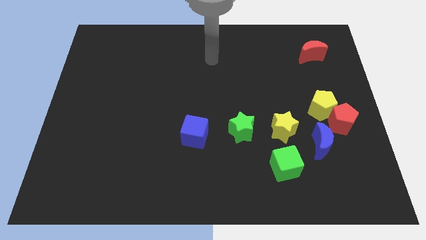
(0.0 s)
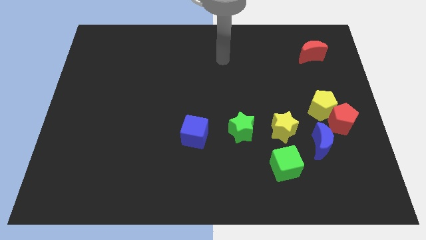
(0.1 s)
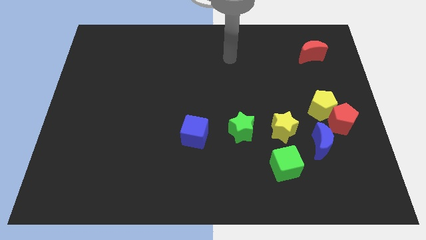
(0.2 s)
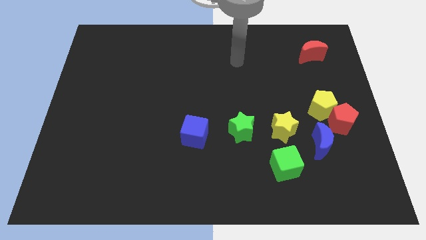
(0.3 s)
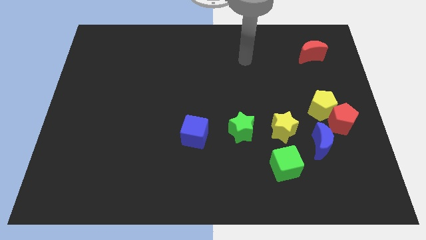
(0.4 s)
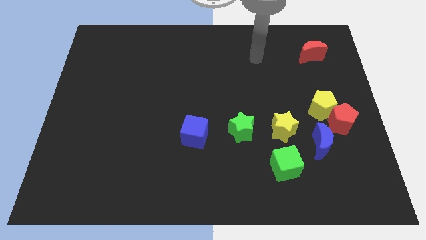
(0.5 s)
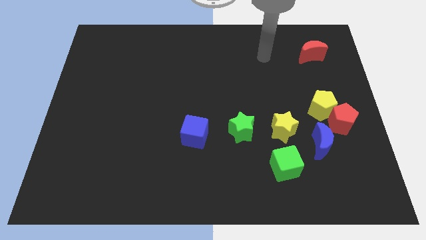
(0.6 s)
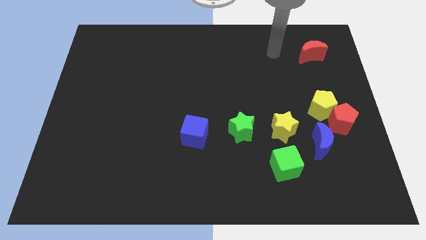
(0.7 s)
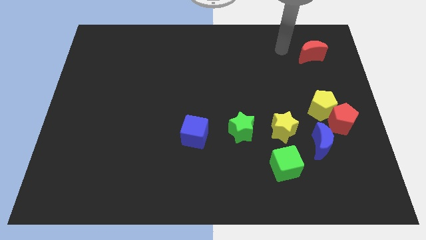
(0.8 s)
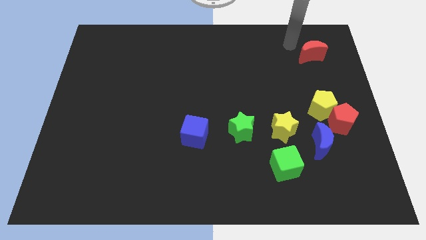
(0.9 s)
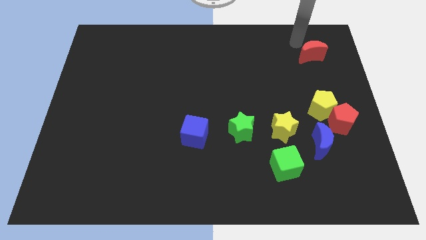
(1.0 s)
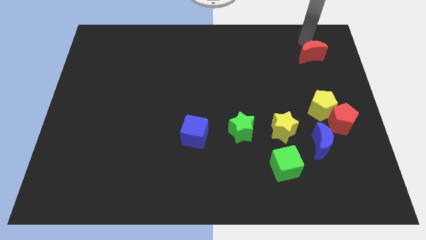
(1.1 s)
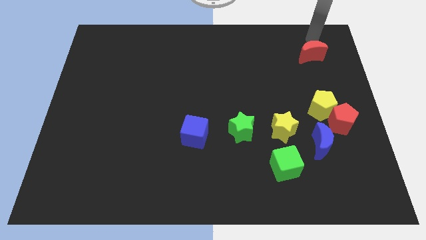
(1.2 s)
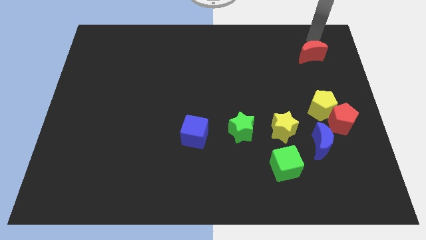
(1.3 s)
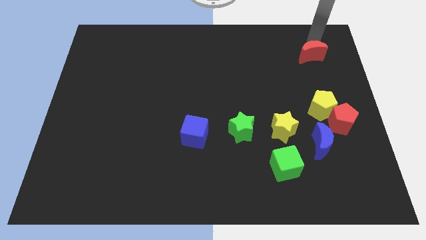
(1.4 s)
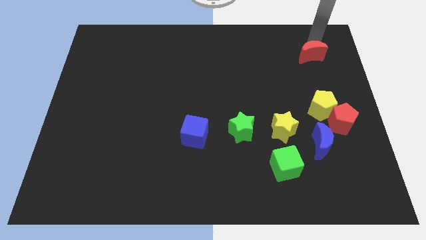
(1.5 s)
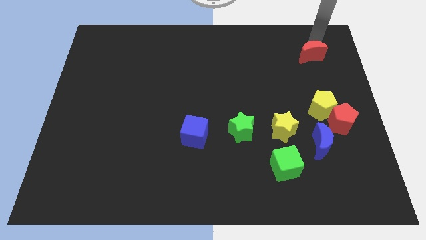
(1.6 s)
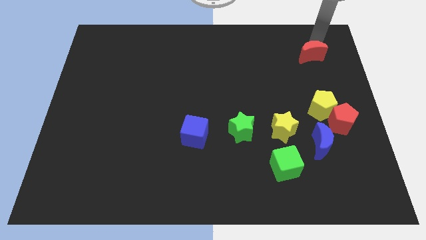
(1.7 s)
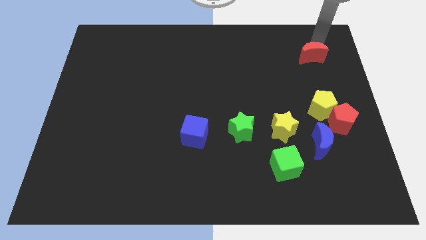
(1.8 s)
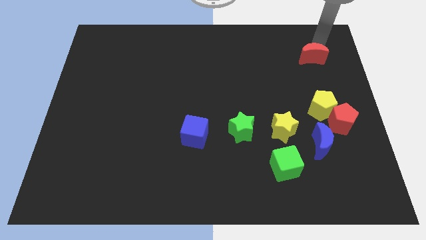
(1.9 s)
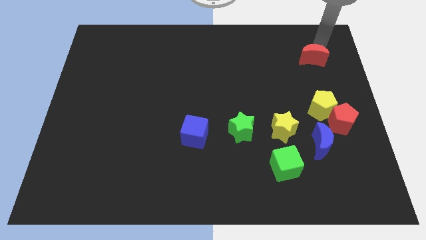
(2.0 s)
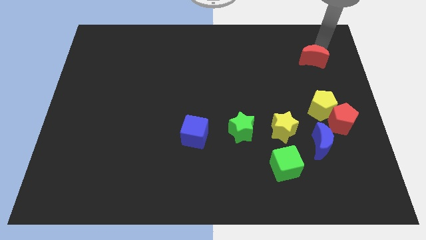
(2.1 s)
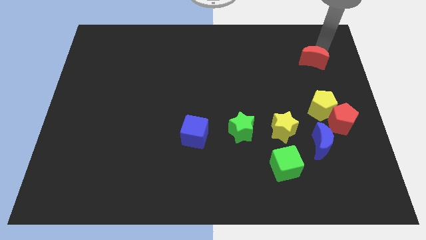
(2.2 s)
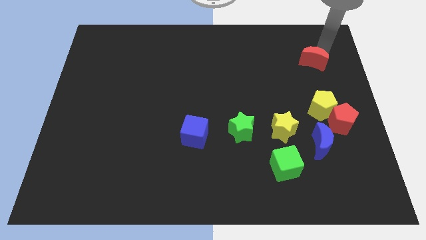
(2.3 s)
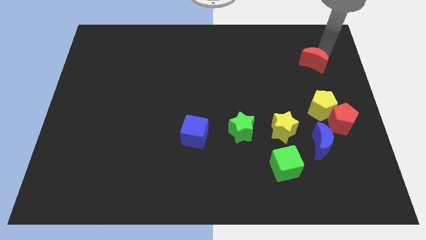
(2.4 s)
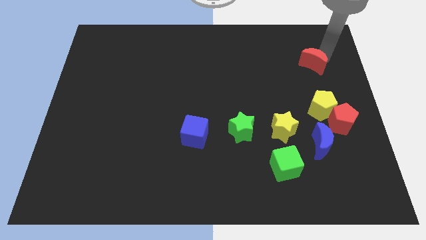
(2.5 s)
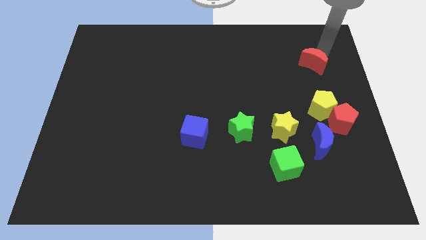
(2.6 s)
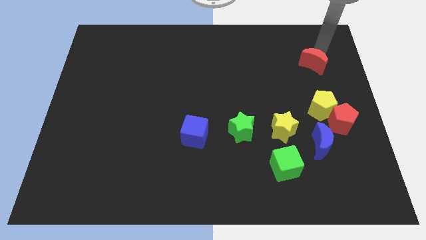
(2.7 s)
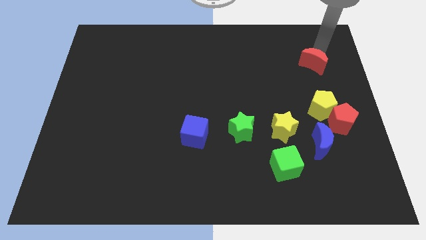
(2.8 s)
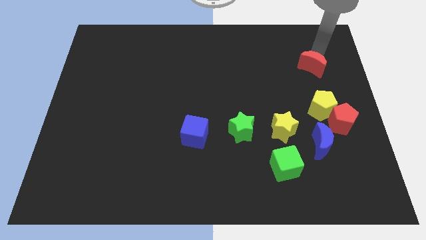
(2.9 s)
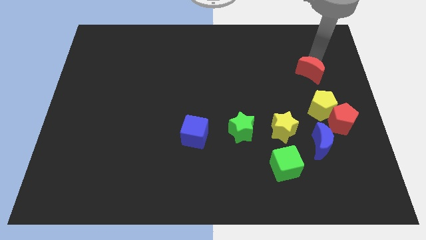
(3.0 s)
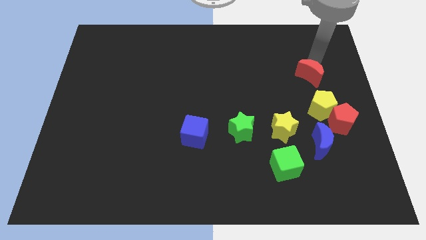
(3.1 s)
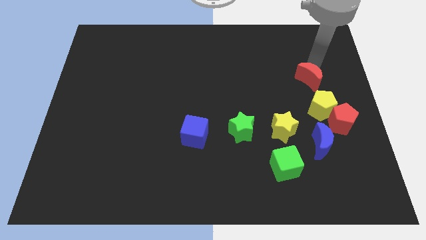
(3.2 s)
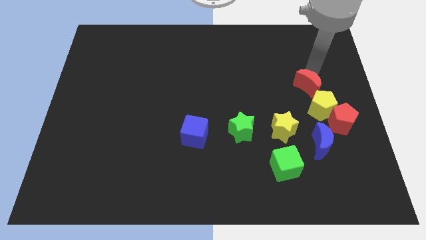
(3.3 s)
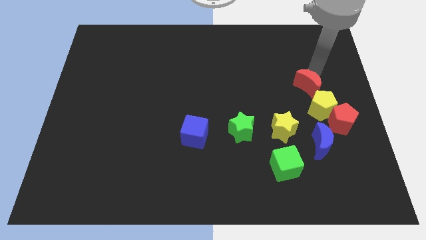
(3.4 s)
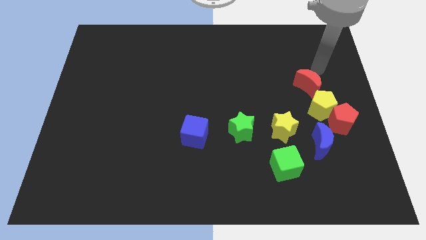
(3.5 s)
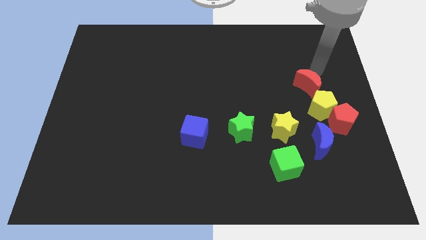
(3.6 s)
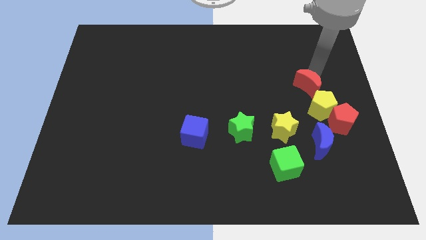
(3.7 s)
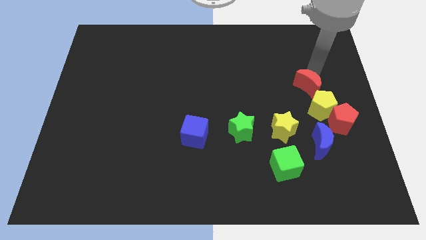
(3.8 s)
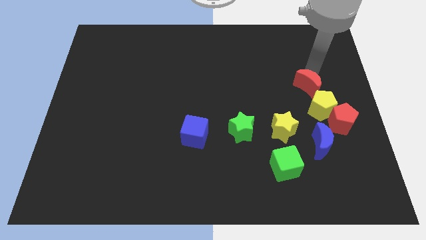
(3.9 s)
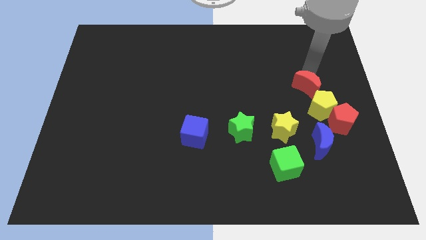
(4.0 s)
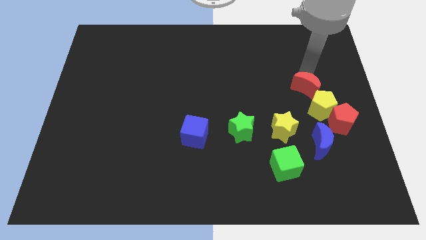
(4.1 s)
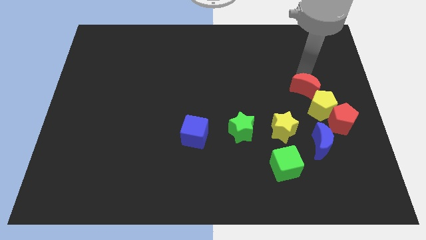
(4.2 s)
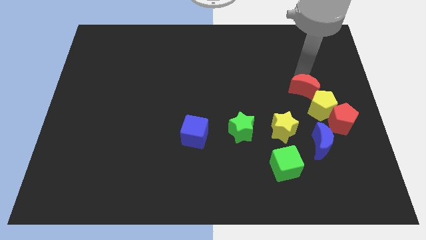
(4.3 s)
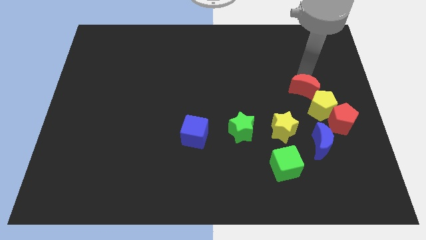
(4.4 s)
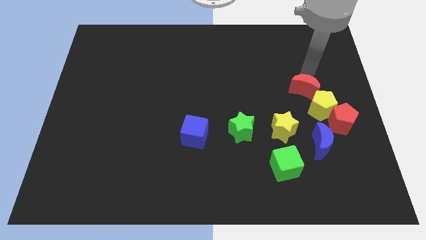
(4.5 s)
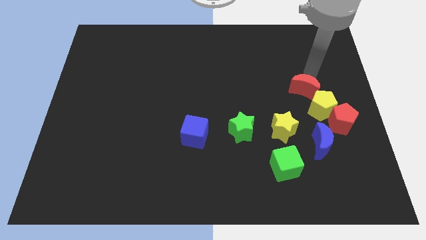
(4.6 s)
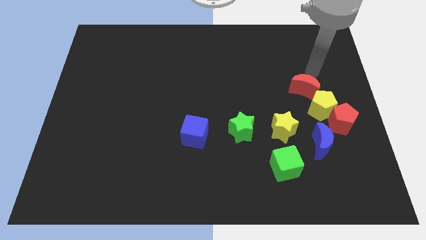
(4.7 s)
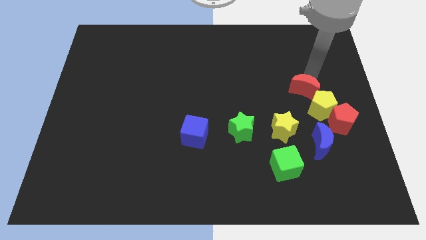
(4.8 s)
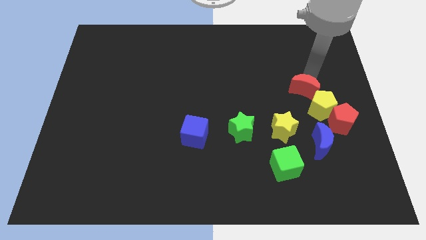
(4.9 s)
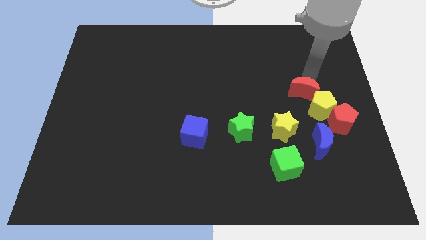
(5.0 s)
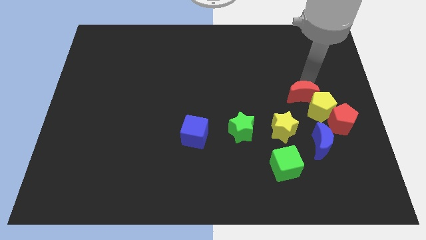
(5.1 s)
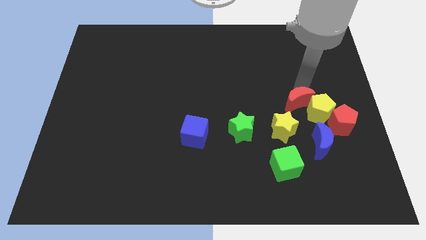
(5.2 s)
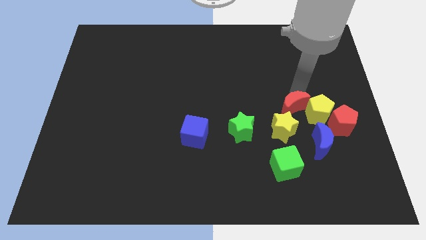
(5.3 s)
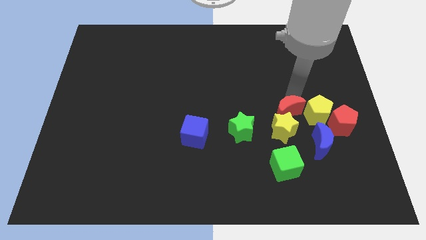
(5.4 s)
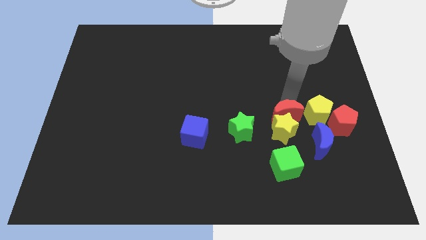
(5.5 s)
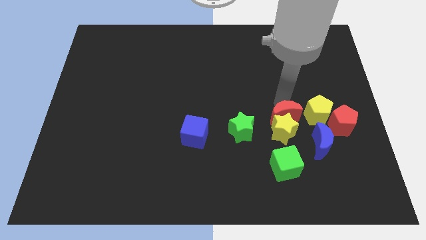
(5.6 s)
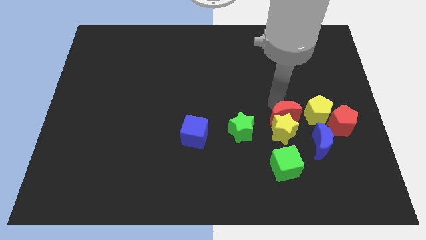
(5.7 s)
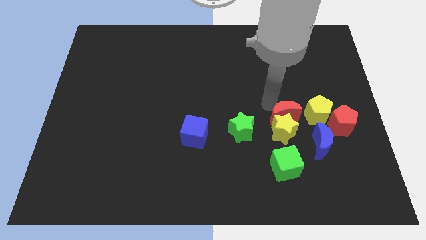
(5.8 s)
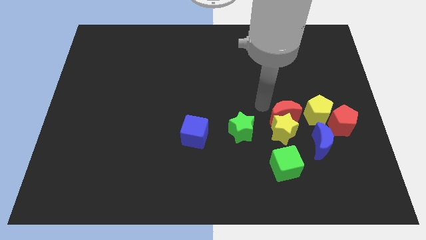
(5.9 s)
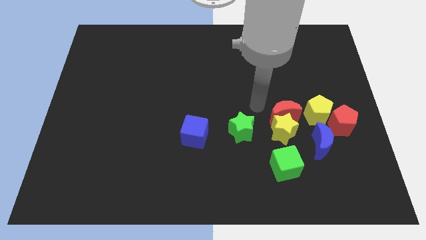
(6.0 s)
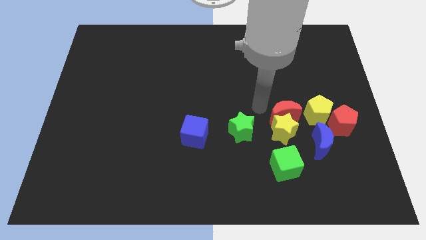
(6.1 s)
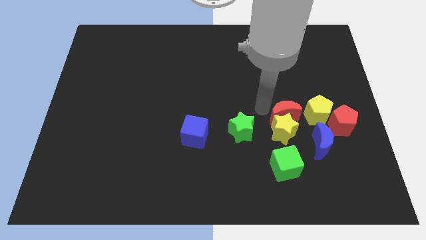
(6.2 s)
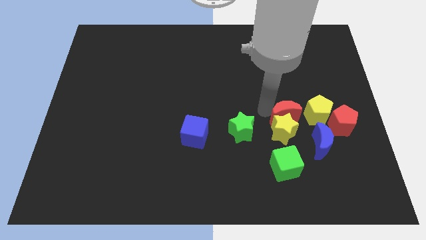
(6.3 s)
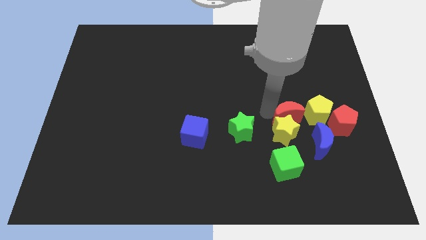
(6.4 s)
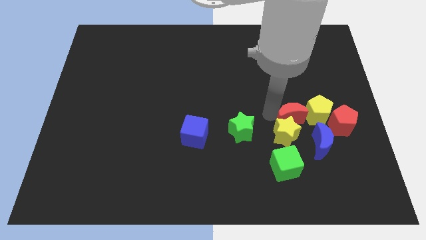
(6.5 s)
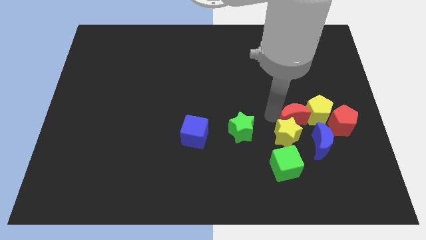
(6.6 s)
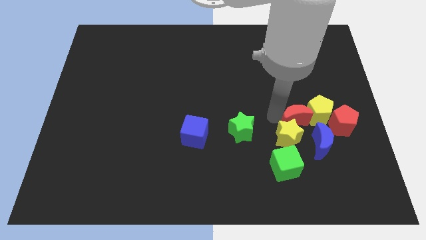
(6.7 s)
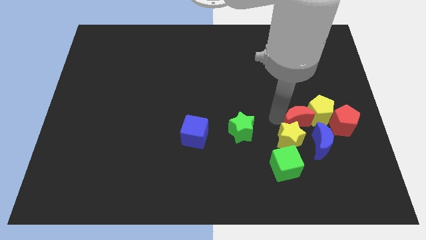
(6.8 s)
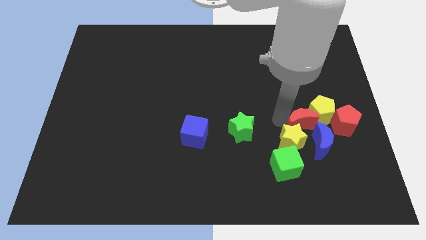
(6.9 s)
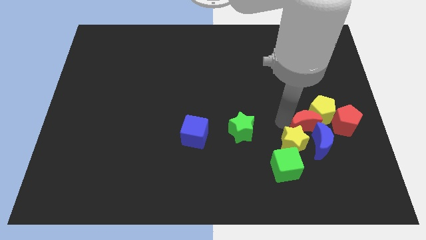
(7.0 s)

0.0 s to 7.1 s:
push the red moon to the blue moon

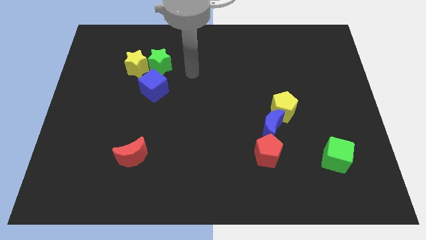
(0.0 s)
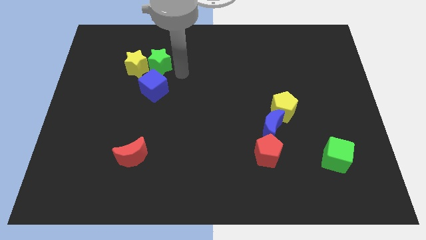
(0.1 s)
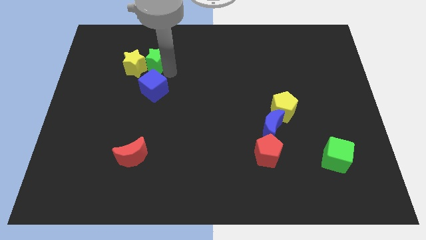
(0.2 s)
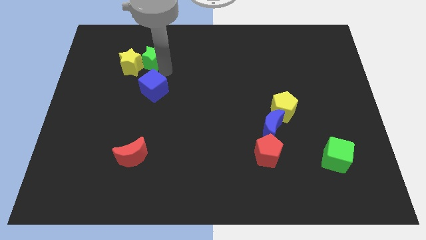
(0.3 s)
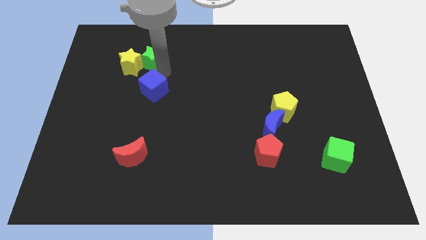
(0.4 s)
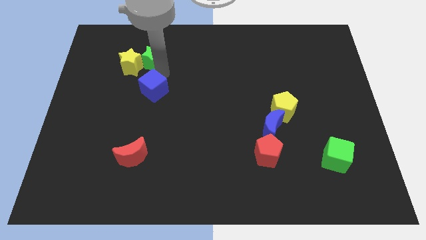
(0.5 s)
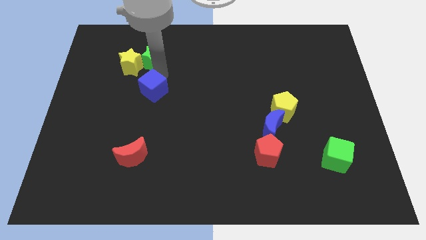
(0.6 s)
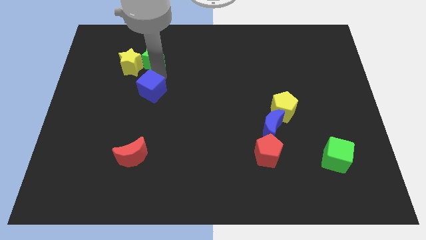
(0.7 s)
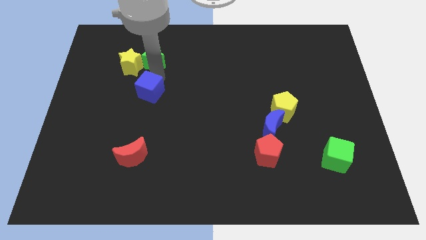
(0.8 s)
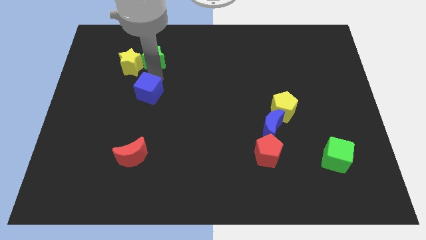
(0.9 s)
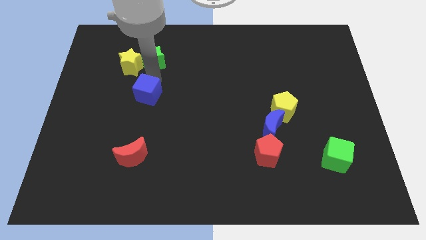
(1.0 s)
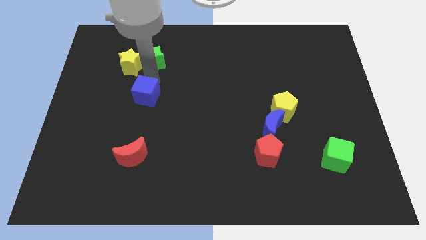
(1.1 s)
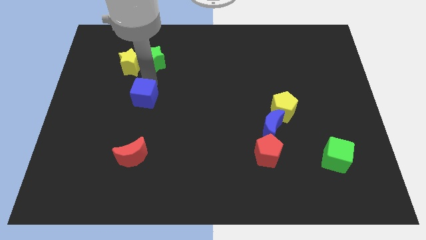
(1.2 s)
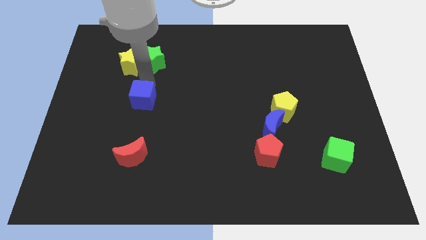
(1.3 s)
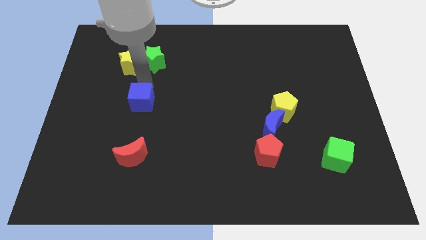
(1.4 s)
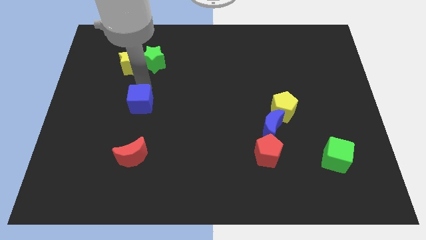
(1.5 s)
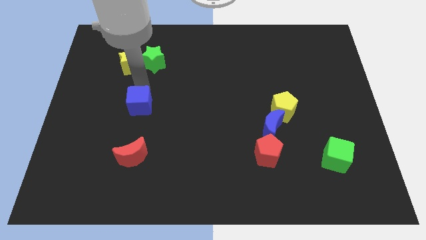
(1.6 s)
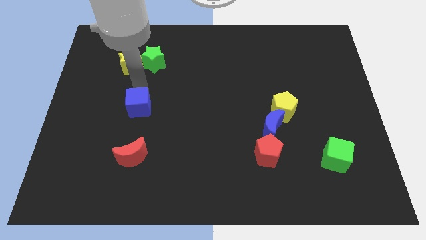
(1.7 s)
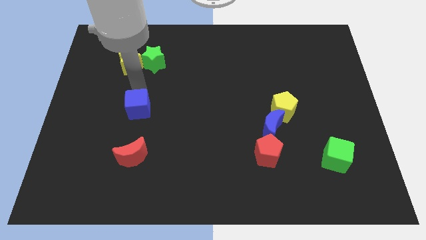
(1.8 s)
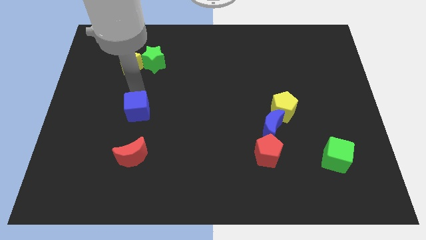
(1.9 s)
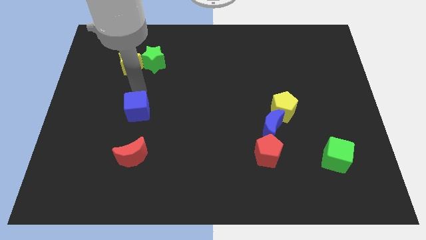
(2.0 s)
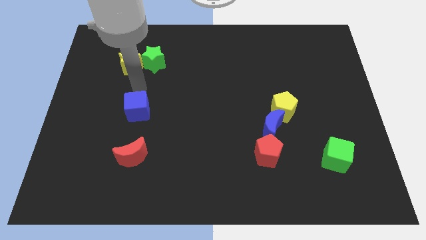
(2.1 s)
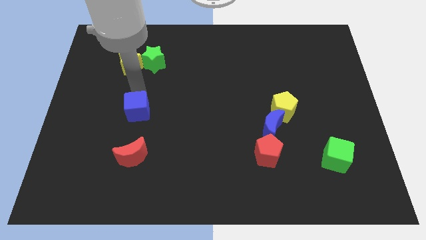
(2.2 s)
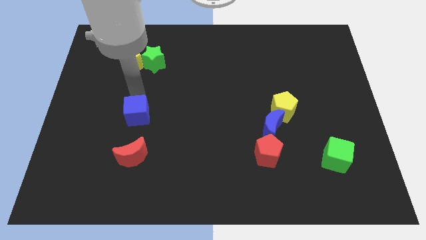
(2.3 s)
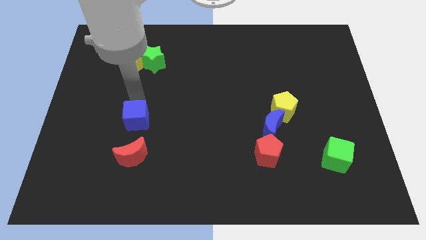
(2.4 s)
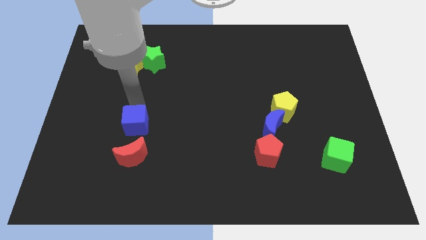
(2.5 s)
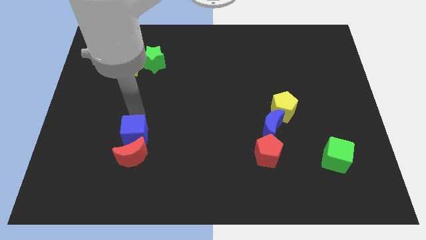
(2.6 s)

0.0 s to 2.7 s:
slide the blue cube to the red moon
